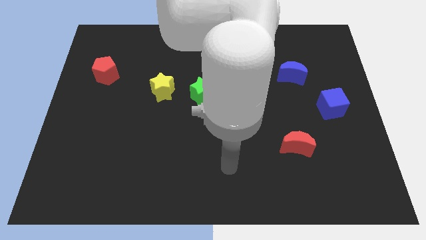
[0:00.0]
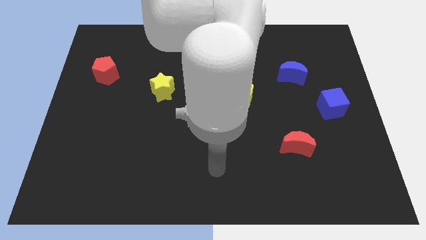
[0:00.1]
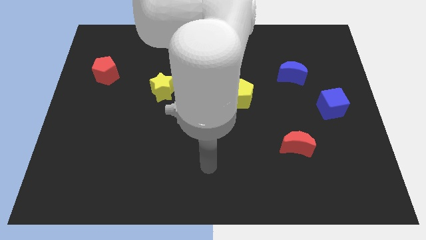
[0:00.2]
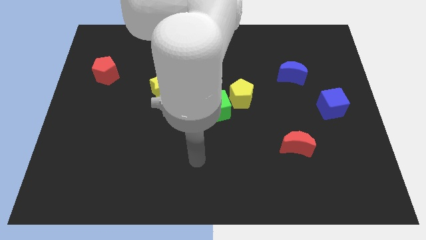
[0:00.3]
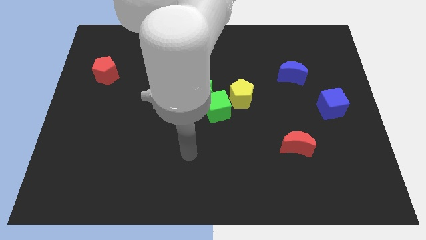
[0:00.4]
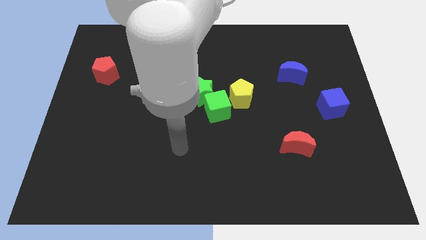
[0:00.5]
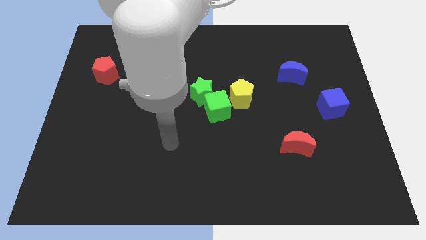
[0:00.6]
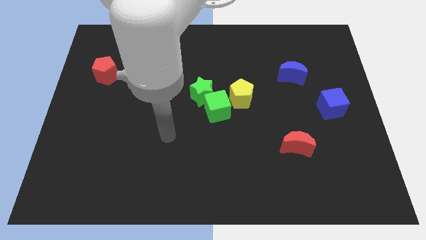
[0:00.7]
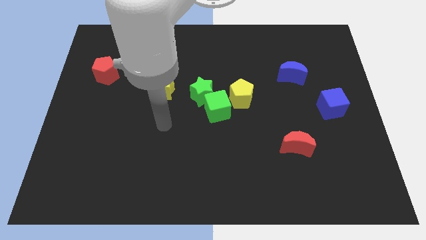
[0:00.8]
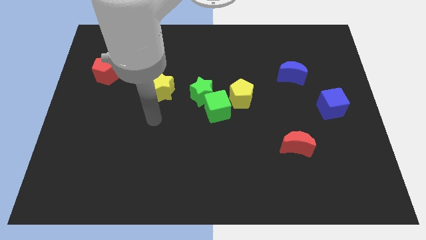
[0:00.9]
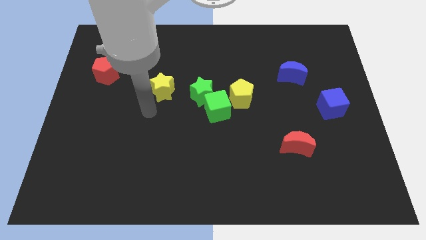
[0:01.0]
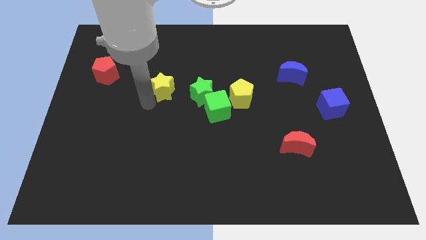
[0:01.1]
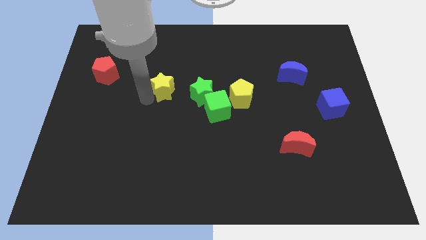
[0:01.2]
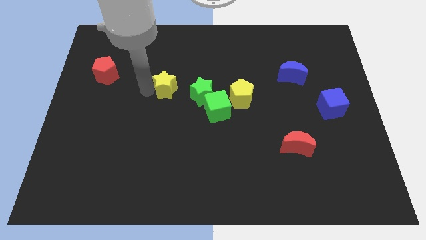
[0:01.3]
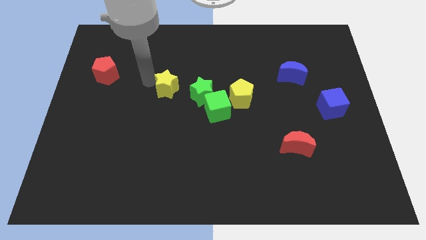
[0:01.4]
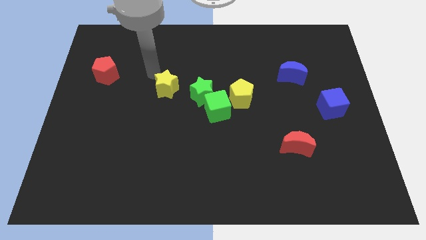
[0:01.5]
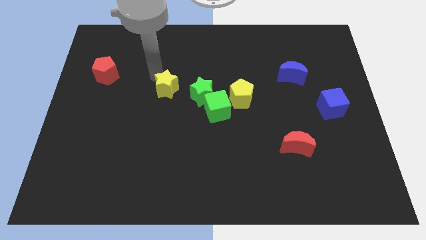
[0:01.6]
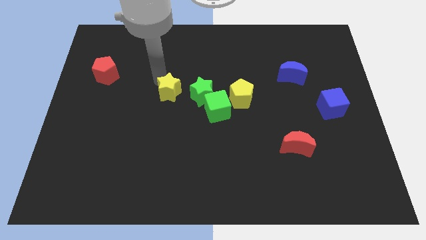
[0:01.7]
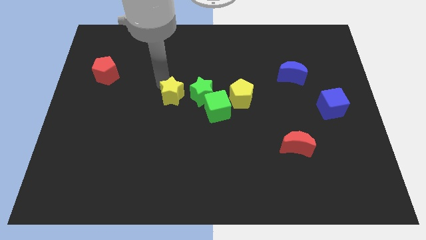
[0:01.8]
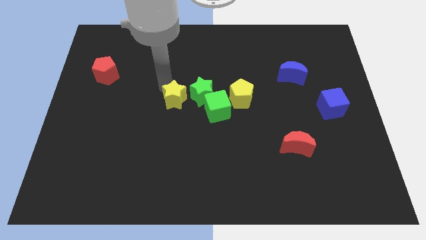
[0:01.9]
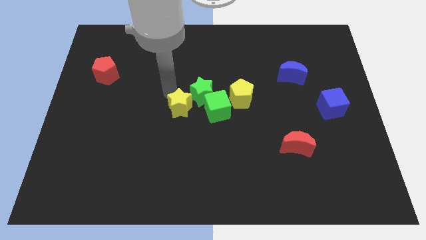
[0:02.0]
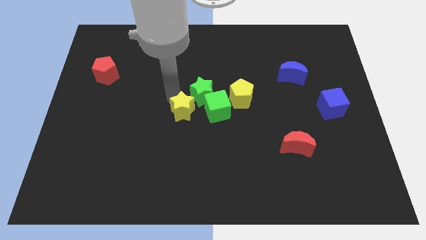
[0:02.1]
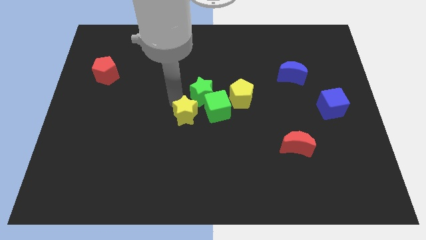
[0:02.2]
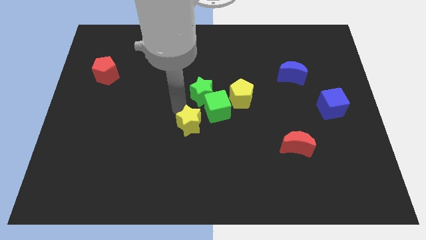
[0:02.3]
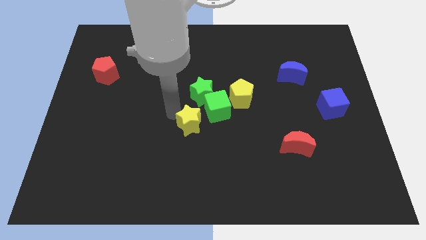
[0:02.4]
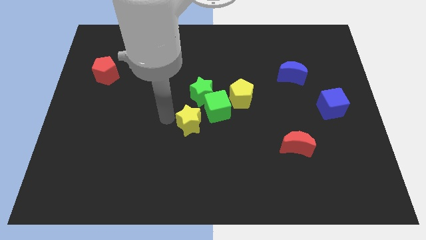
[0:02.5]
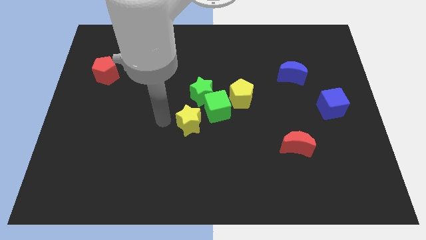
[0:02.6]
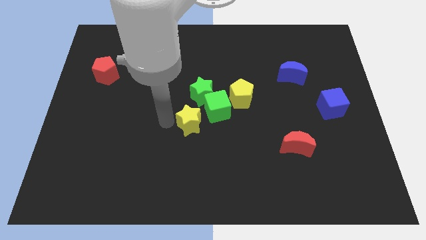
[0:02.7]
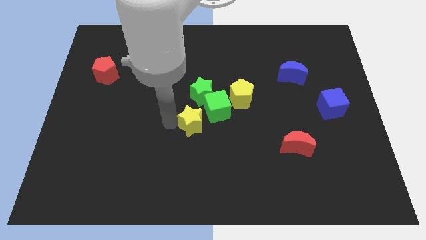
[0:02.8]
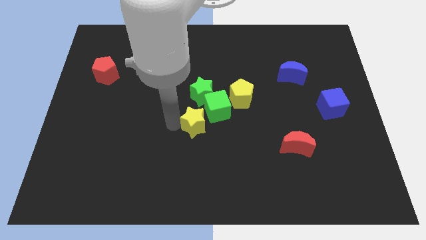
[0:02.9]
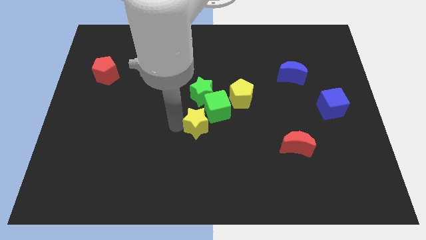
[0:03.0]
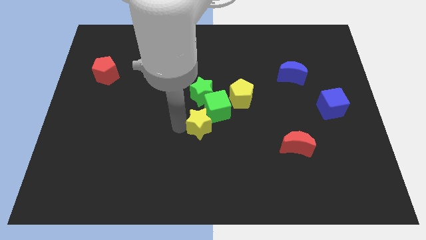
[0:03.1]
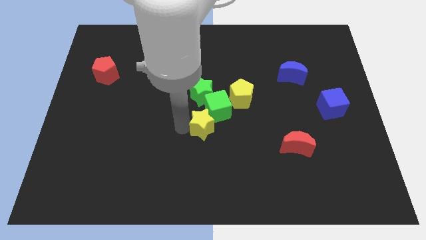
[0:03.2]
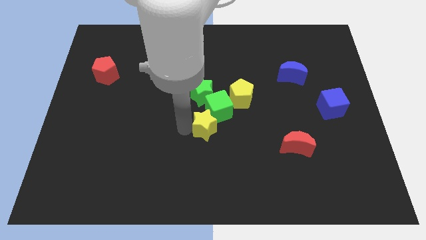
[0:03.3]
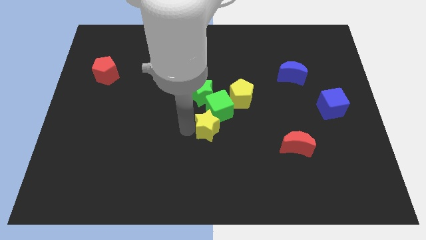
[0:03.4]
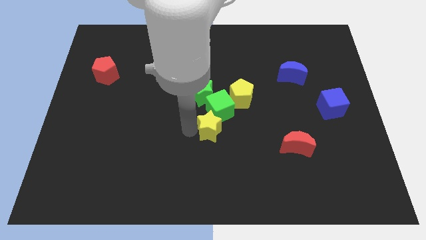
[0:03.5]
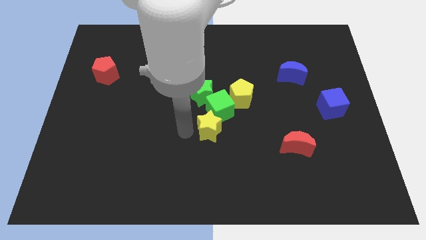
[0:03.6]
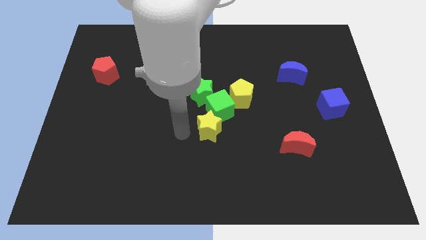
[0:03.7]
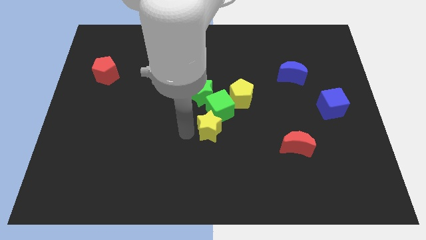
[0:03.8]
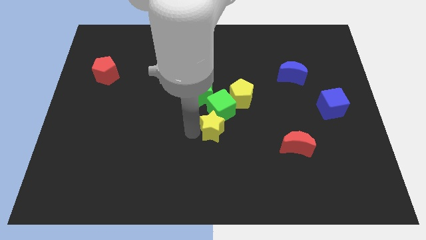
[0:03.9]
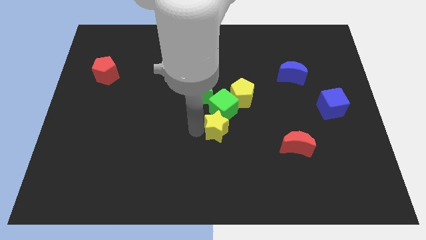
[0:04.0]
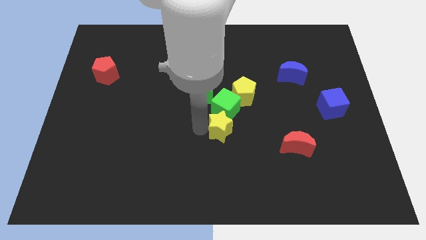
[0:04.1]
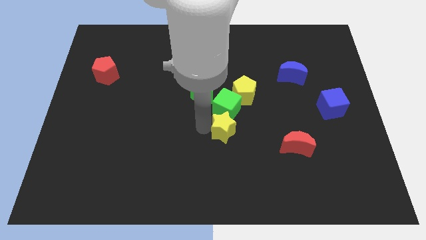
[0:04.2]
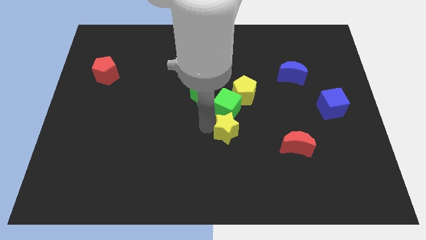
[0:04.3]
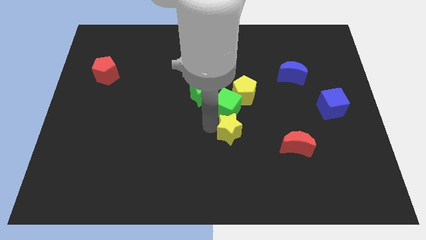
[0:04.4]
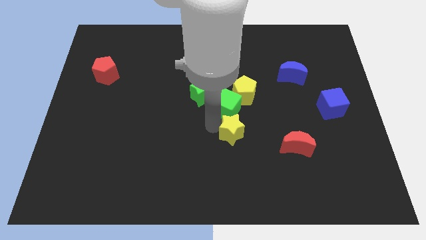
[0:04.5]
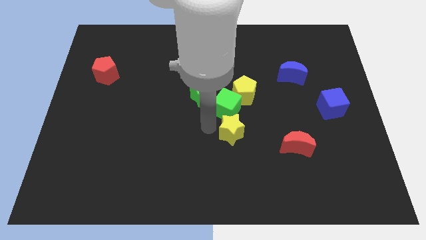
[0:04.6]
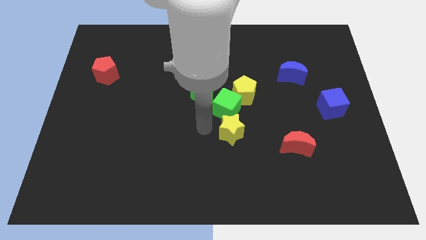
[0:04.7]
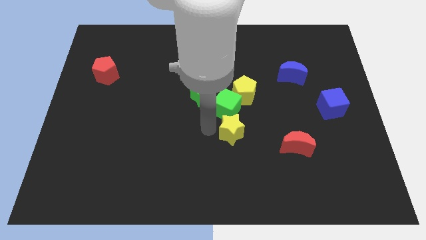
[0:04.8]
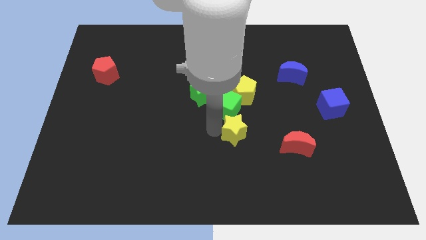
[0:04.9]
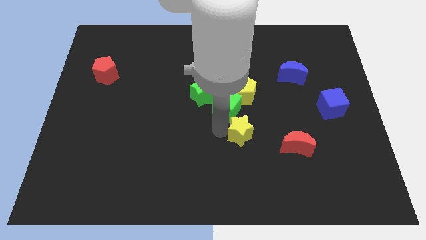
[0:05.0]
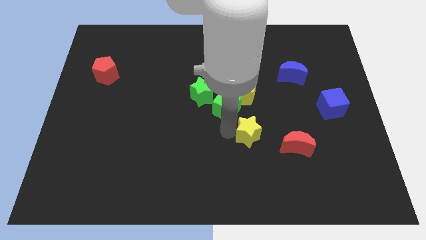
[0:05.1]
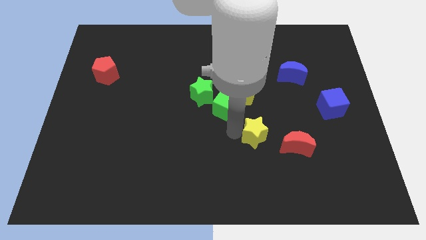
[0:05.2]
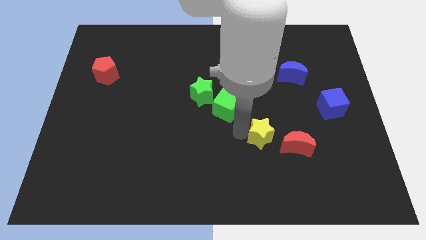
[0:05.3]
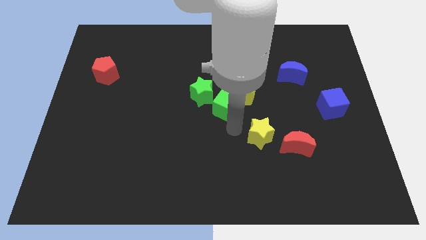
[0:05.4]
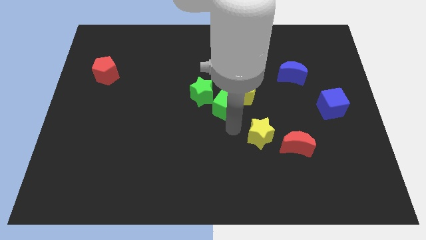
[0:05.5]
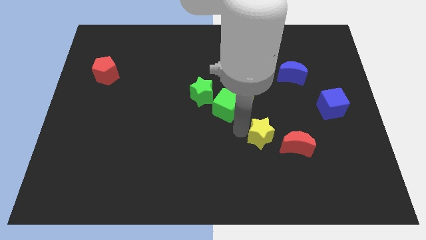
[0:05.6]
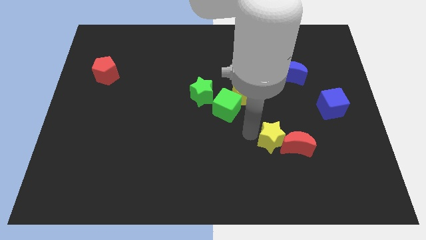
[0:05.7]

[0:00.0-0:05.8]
move the yellow star towards the red moon

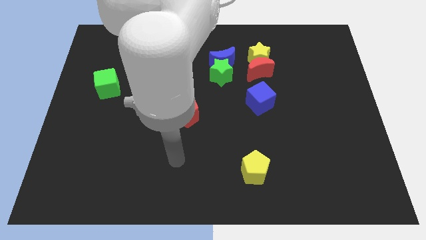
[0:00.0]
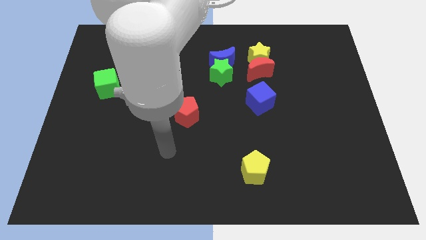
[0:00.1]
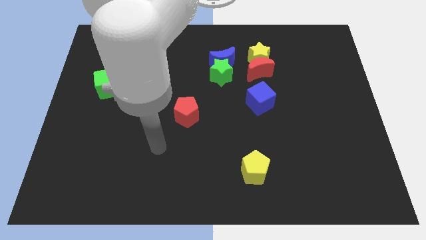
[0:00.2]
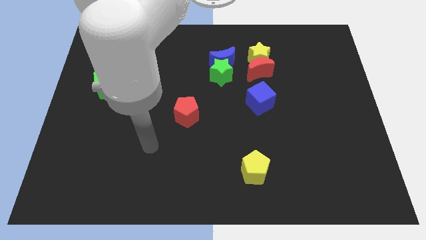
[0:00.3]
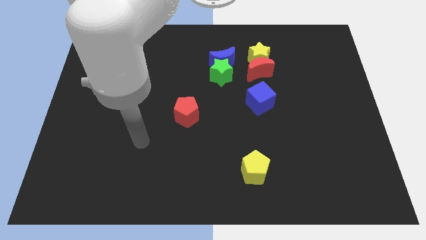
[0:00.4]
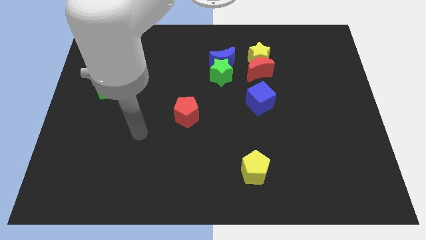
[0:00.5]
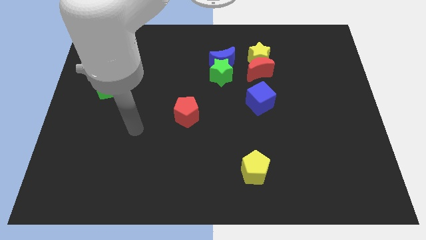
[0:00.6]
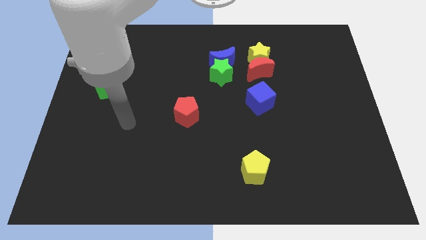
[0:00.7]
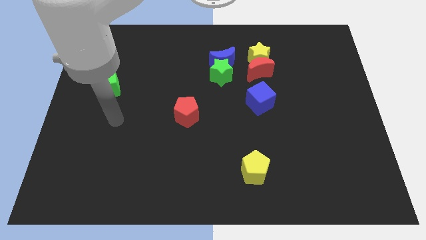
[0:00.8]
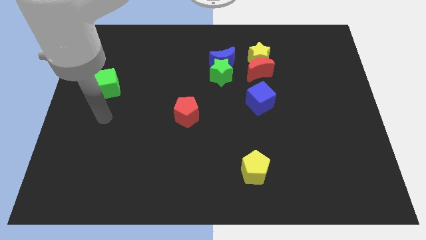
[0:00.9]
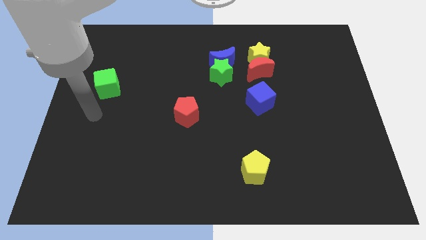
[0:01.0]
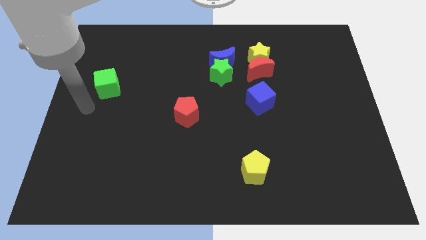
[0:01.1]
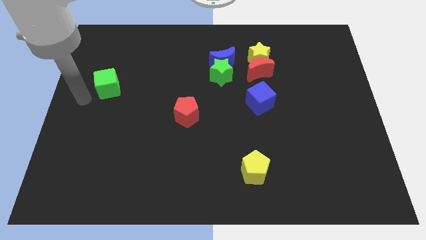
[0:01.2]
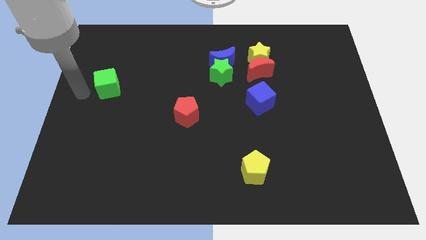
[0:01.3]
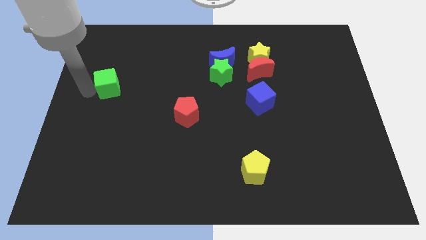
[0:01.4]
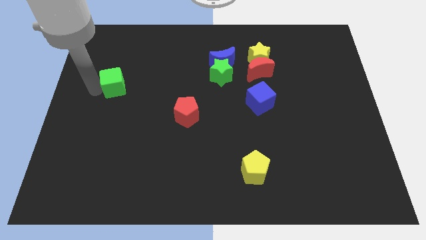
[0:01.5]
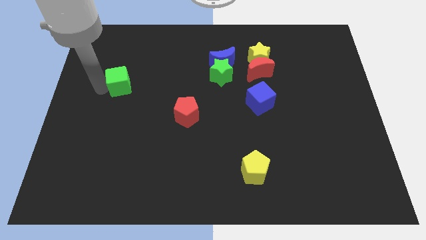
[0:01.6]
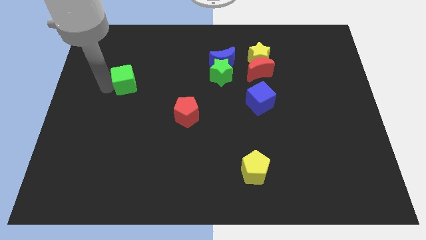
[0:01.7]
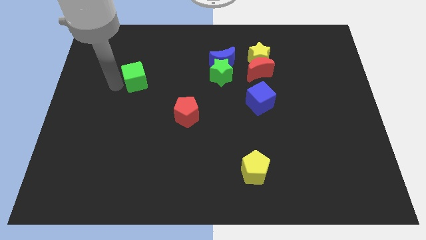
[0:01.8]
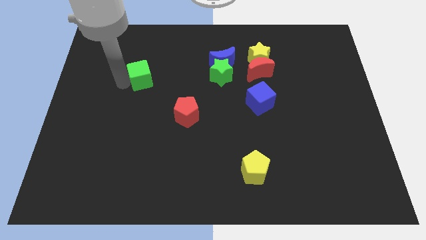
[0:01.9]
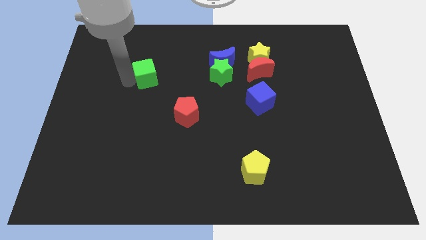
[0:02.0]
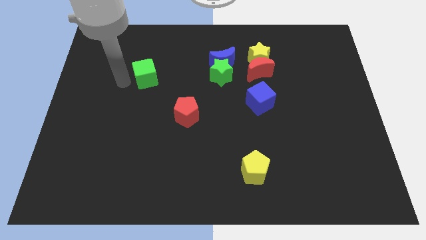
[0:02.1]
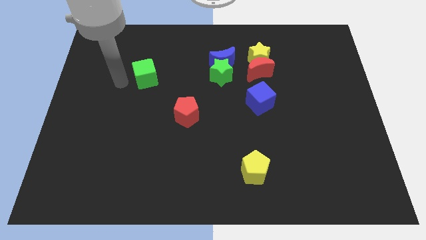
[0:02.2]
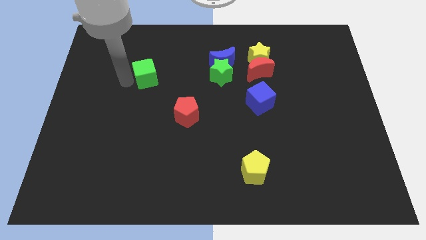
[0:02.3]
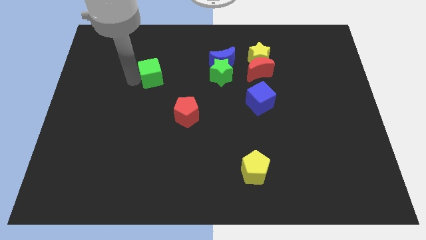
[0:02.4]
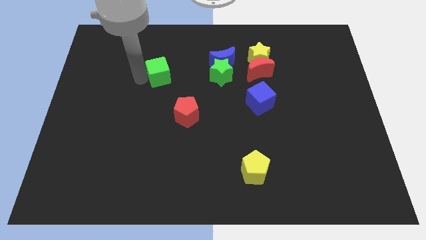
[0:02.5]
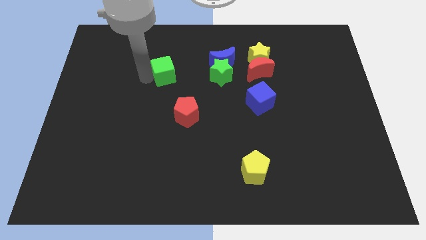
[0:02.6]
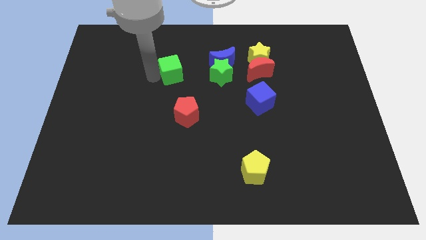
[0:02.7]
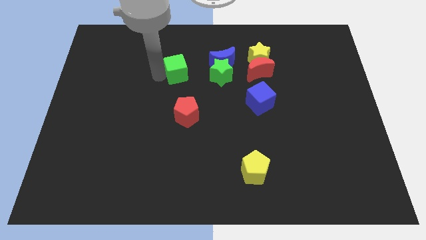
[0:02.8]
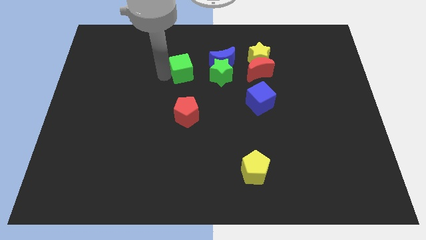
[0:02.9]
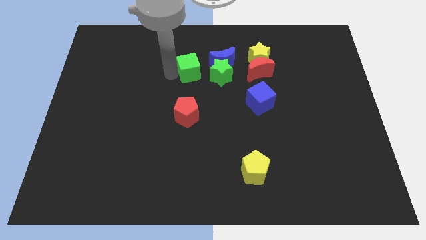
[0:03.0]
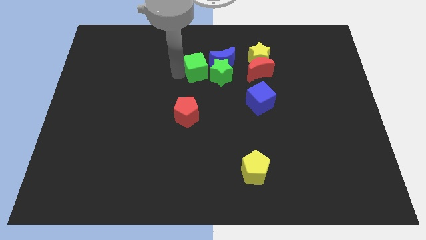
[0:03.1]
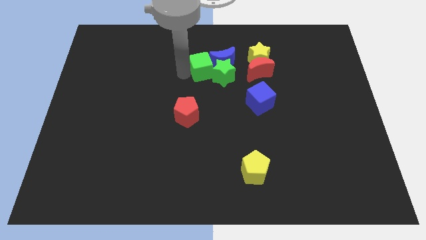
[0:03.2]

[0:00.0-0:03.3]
put the green cube to the blue moon
